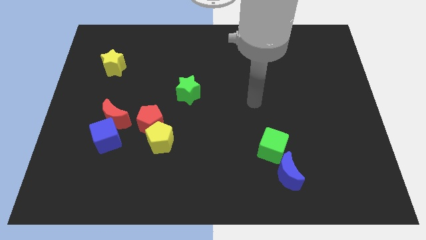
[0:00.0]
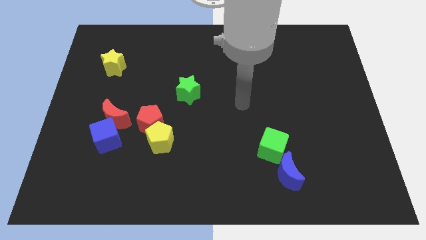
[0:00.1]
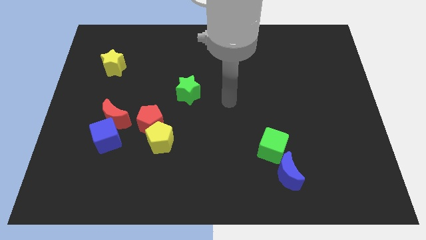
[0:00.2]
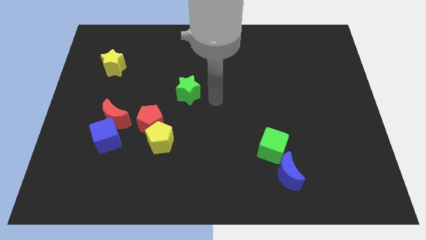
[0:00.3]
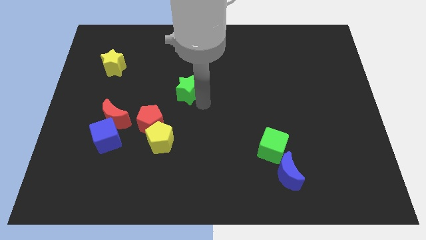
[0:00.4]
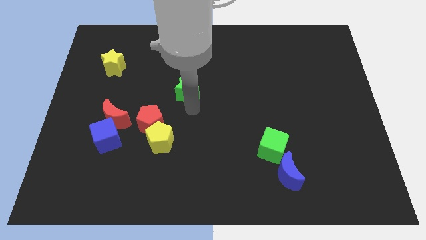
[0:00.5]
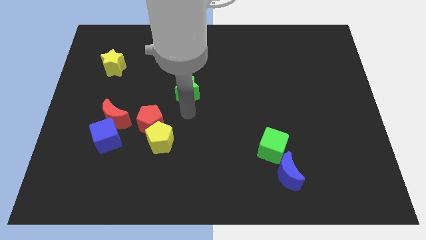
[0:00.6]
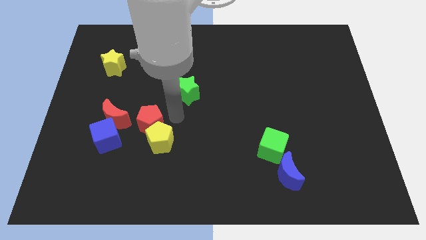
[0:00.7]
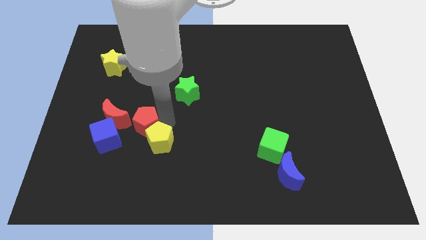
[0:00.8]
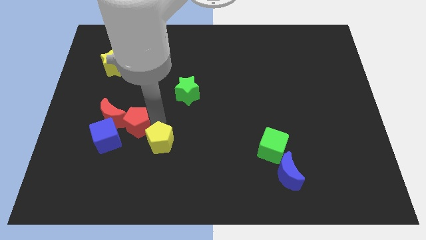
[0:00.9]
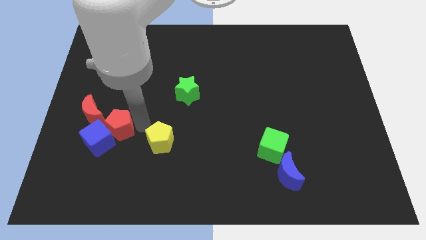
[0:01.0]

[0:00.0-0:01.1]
move the yellow pentagon away from the red pentagon

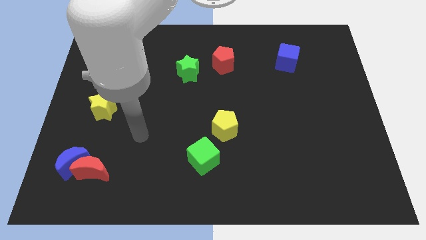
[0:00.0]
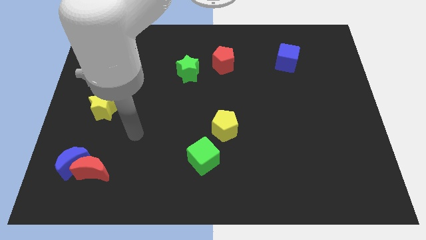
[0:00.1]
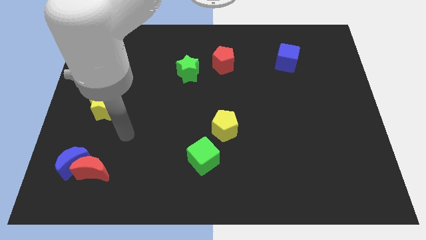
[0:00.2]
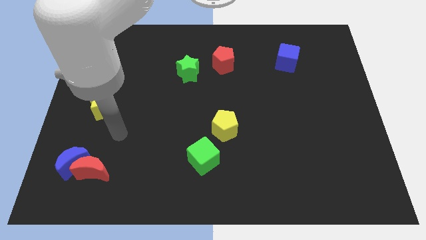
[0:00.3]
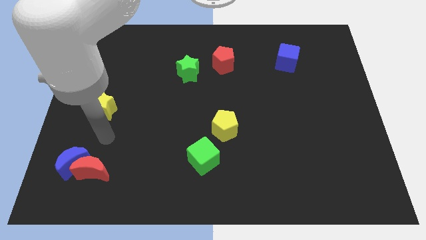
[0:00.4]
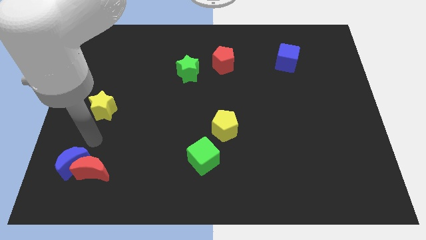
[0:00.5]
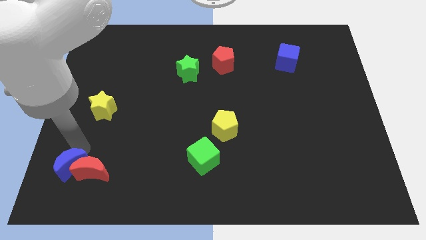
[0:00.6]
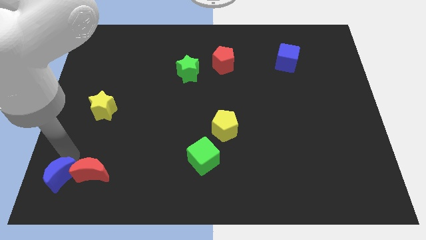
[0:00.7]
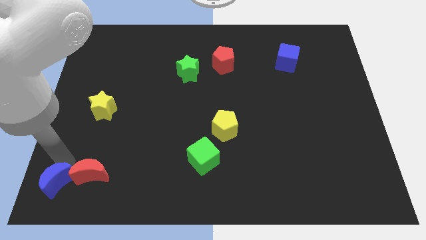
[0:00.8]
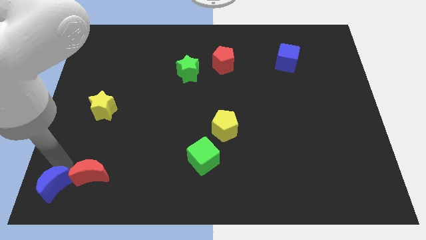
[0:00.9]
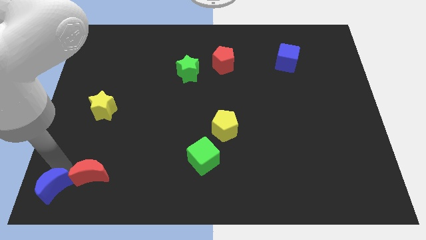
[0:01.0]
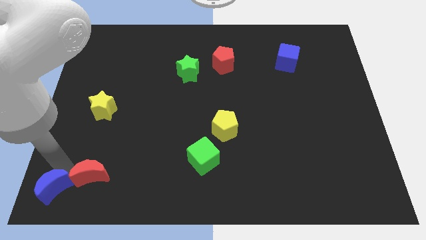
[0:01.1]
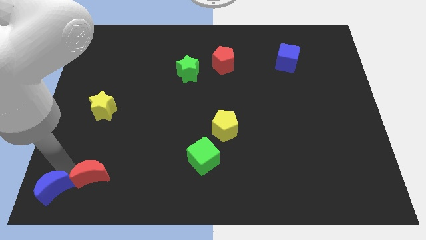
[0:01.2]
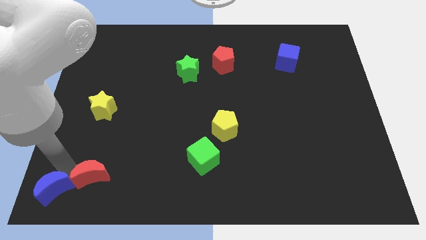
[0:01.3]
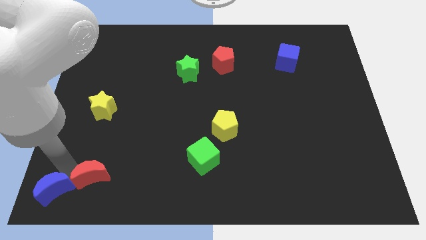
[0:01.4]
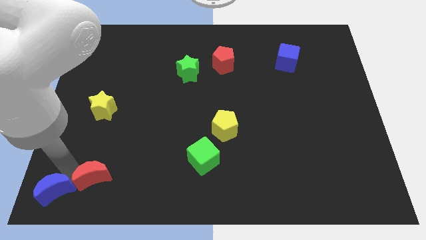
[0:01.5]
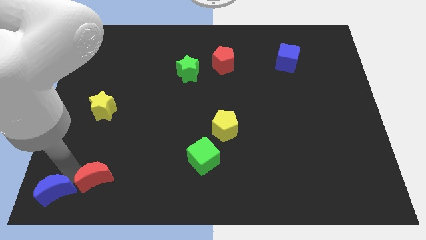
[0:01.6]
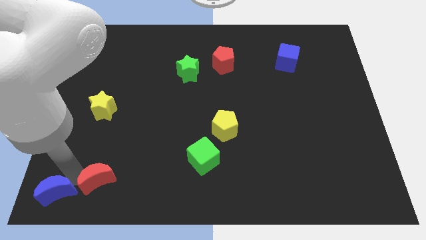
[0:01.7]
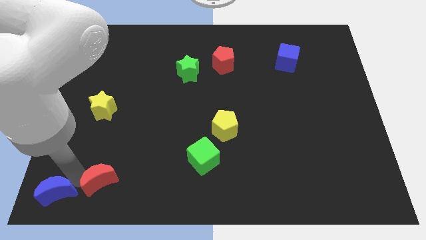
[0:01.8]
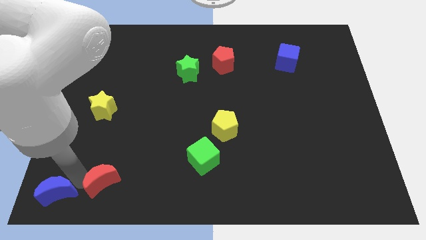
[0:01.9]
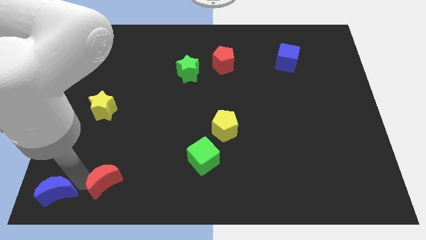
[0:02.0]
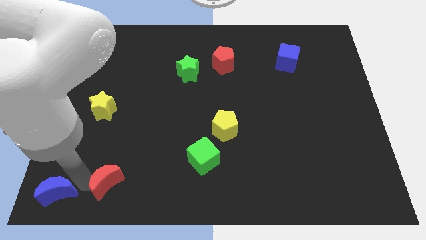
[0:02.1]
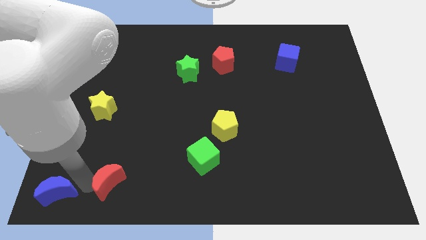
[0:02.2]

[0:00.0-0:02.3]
separate the red moon from the blue moon

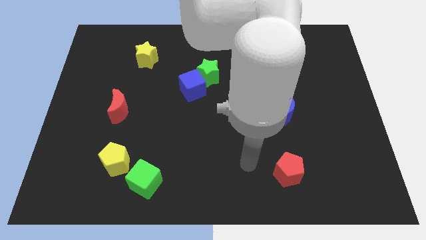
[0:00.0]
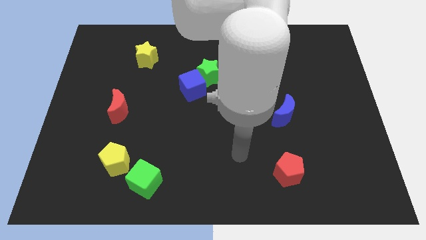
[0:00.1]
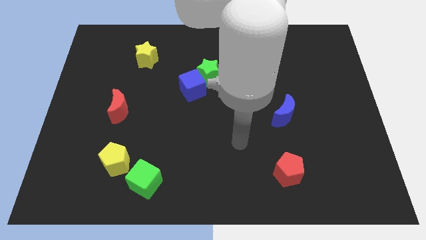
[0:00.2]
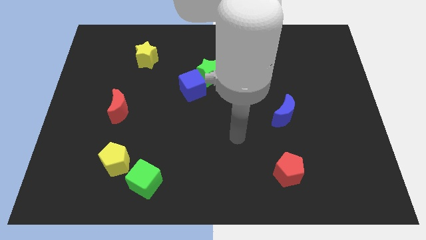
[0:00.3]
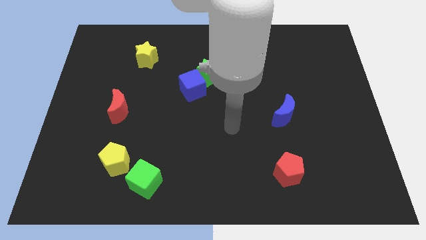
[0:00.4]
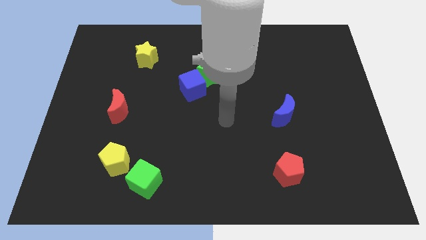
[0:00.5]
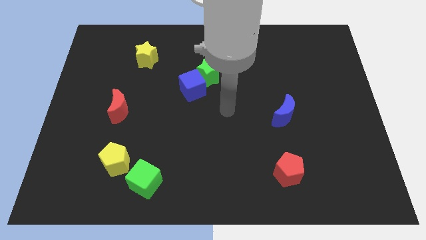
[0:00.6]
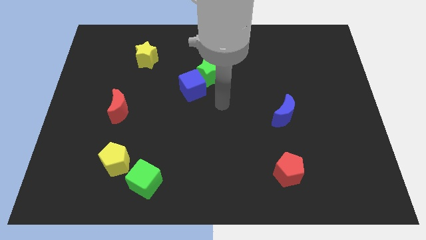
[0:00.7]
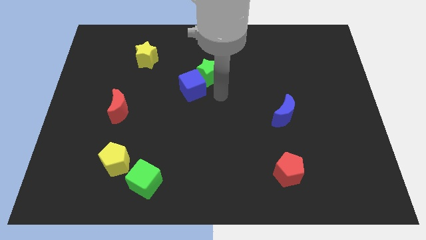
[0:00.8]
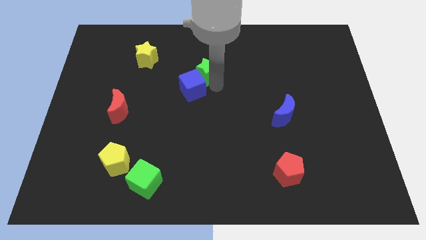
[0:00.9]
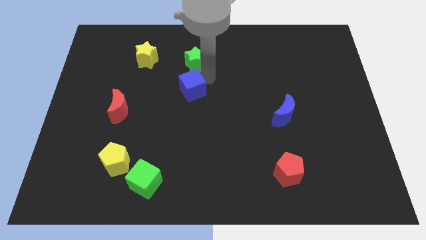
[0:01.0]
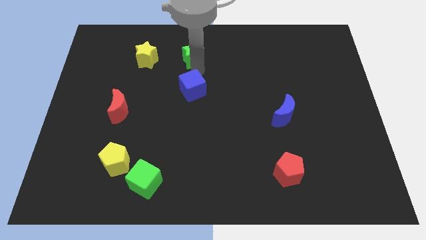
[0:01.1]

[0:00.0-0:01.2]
separate the blue cube from the green star

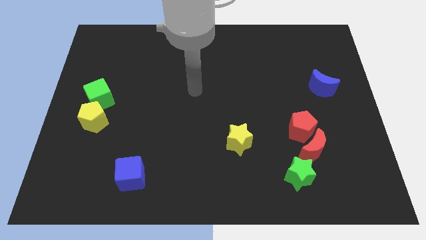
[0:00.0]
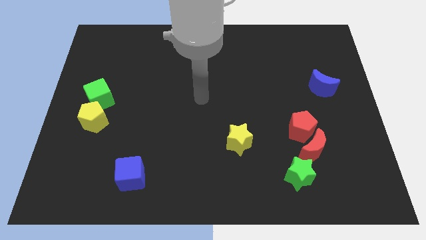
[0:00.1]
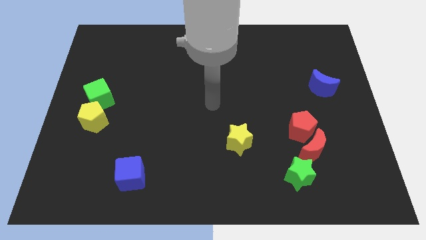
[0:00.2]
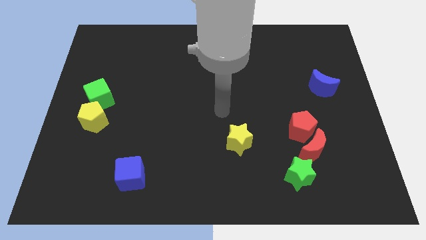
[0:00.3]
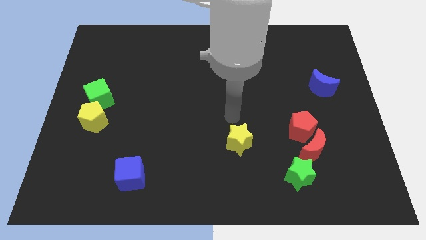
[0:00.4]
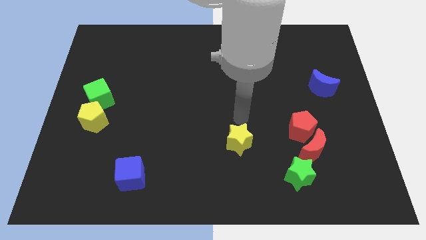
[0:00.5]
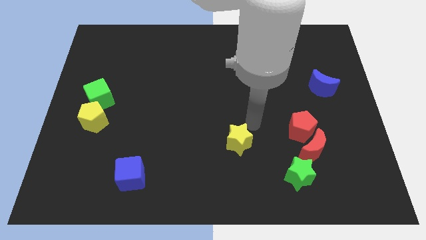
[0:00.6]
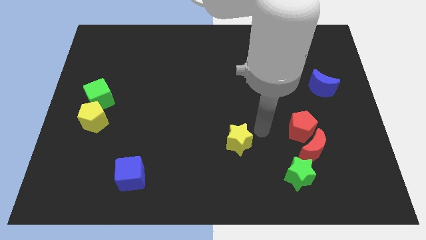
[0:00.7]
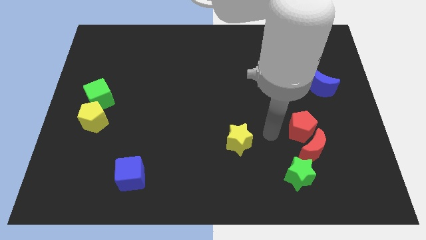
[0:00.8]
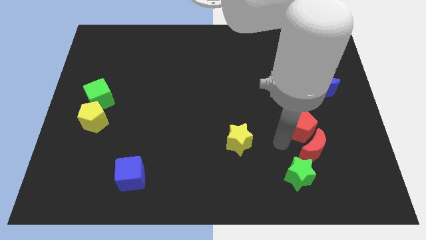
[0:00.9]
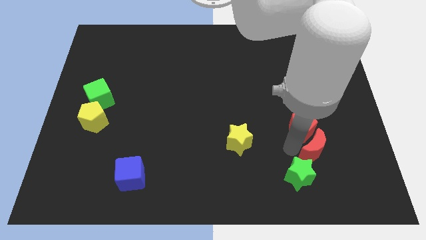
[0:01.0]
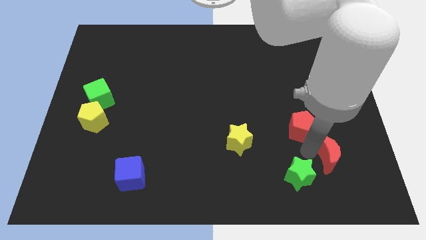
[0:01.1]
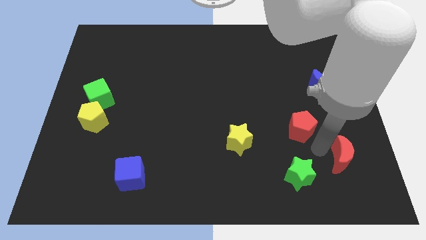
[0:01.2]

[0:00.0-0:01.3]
pull the red pentagon apart from the red moon

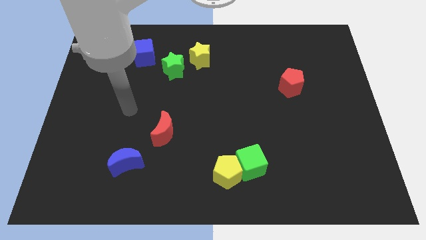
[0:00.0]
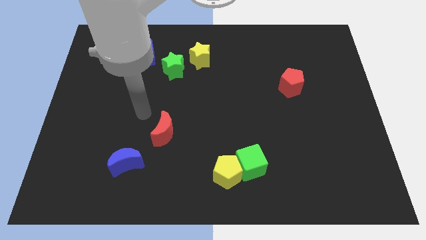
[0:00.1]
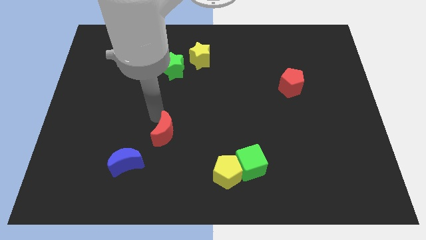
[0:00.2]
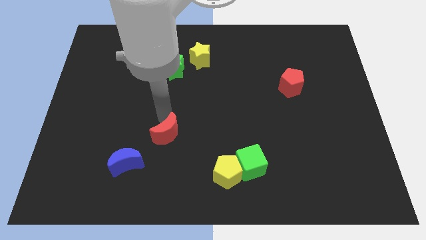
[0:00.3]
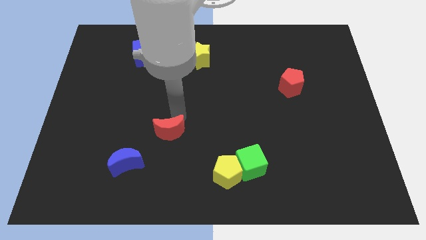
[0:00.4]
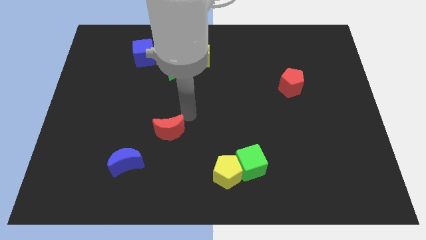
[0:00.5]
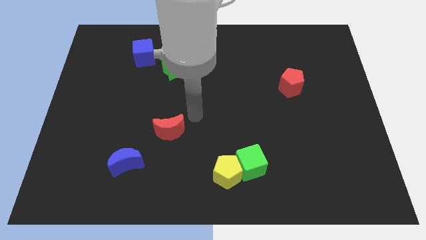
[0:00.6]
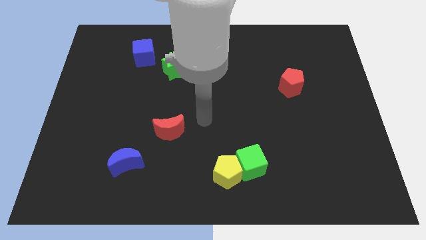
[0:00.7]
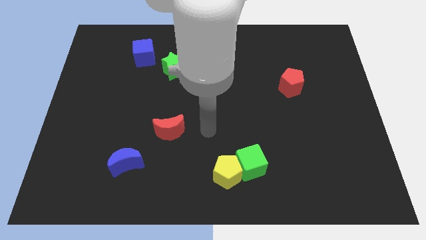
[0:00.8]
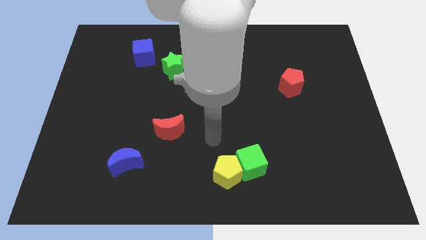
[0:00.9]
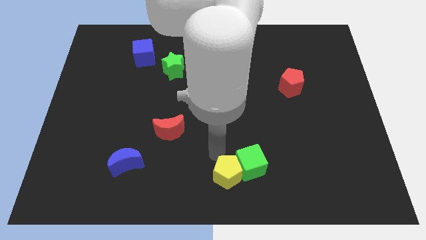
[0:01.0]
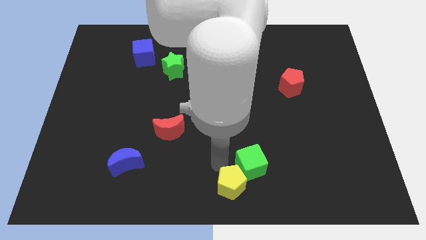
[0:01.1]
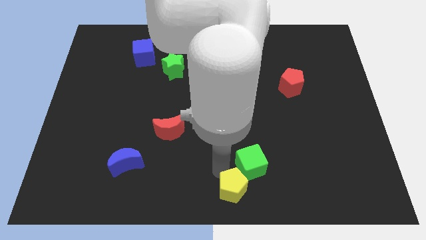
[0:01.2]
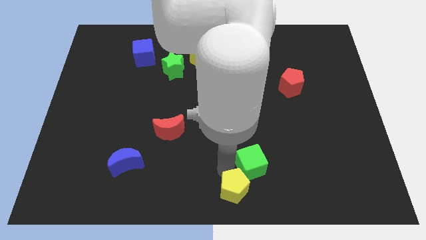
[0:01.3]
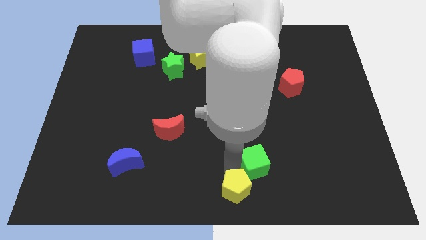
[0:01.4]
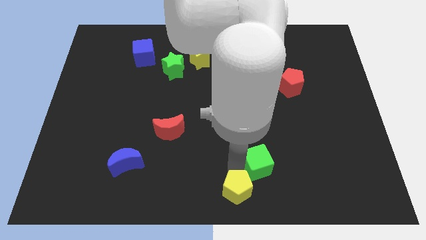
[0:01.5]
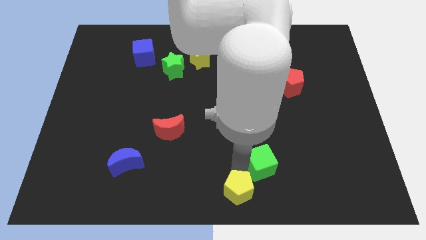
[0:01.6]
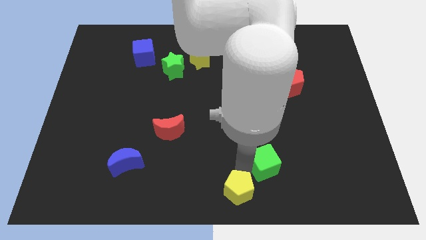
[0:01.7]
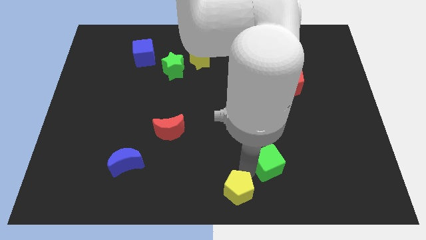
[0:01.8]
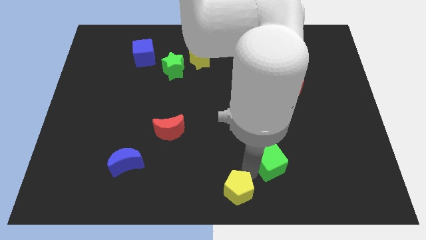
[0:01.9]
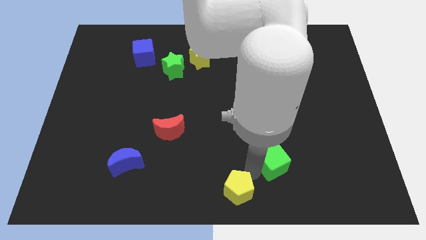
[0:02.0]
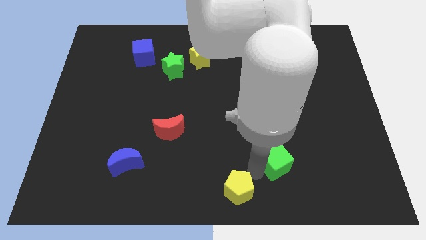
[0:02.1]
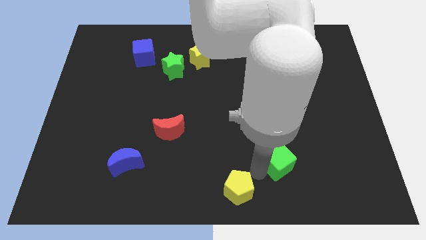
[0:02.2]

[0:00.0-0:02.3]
pull the green cube apart from the yellow pentagon

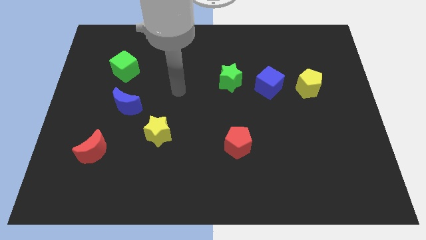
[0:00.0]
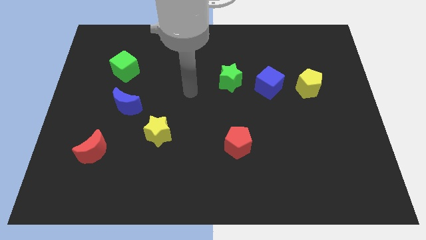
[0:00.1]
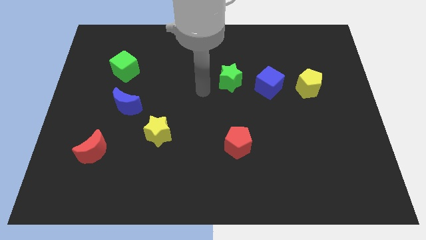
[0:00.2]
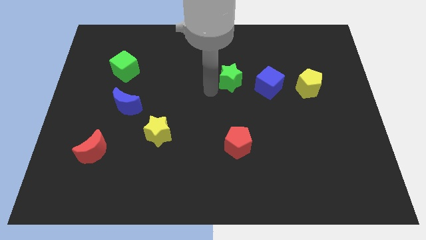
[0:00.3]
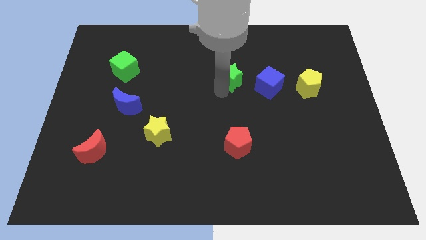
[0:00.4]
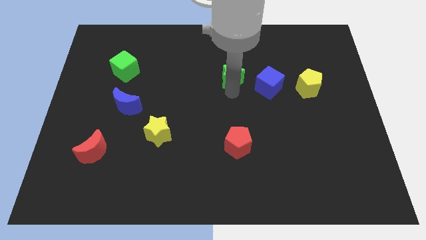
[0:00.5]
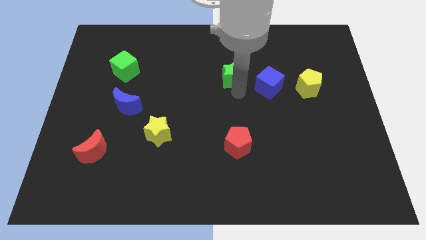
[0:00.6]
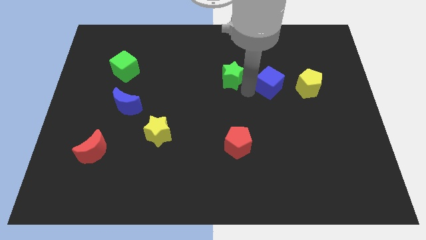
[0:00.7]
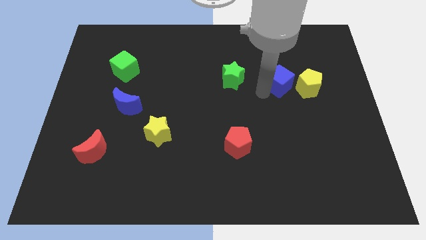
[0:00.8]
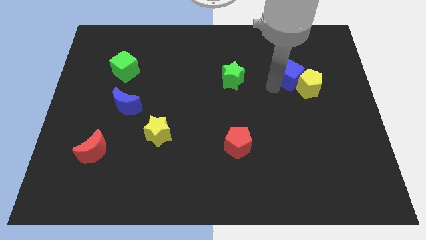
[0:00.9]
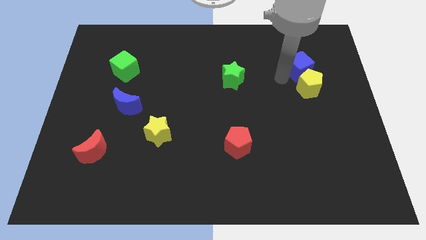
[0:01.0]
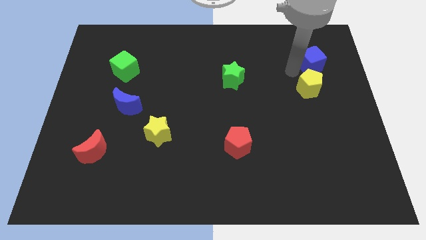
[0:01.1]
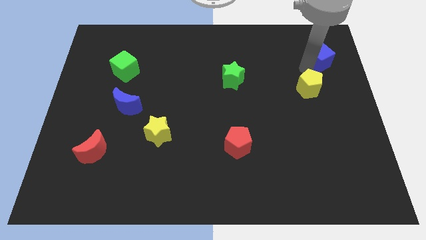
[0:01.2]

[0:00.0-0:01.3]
pull the yellow pentagon apart from the blue cube
